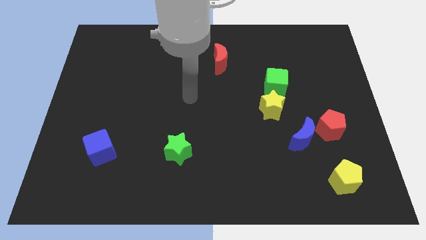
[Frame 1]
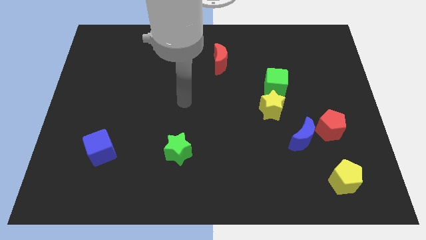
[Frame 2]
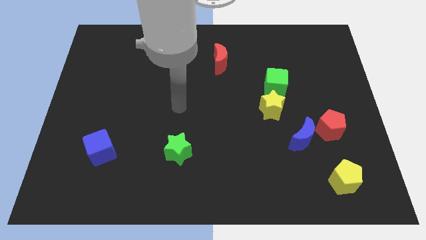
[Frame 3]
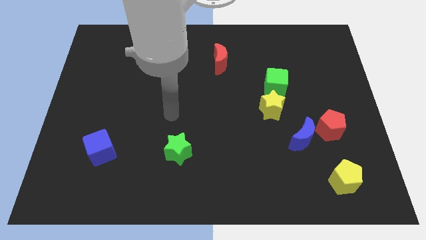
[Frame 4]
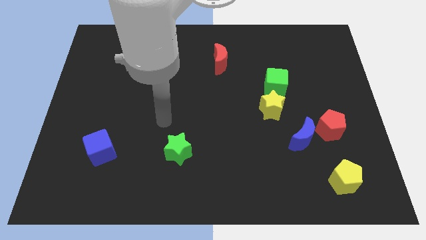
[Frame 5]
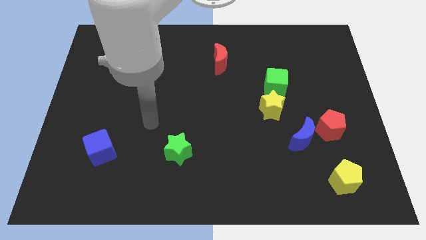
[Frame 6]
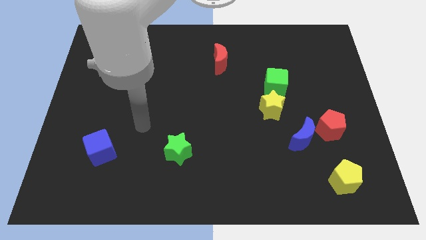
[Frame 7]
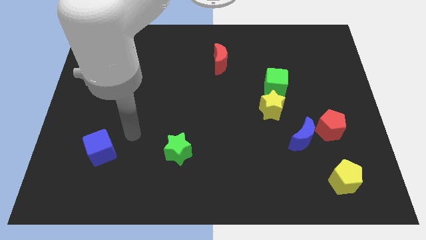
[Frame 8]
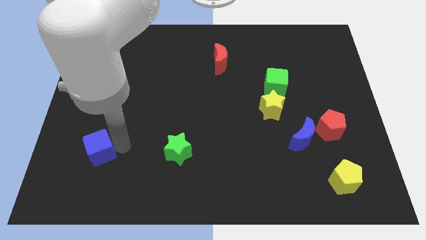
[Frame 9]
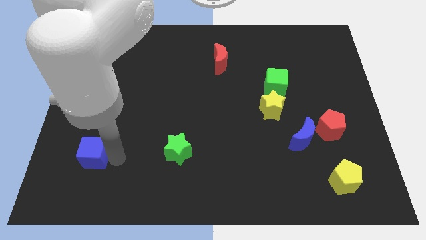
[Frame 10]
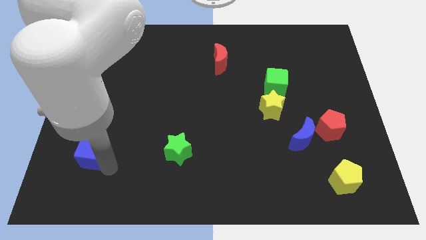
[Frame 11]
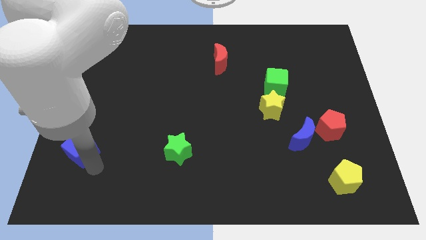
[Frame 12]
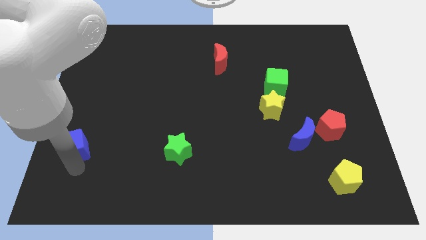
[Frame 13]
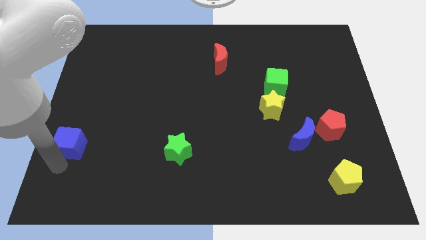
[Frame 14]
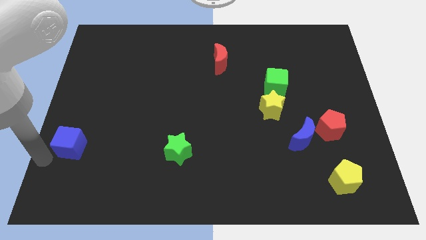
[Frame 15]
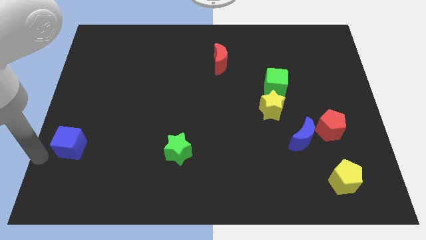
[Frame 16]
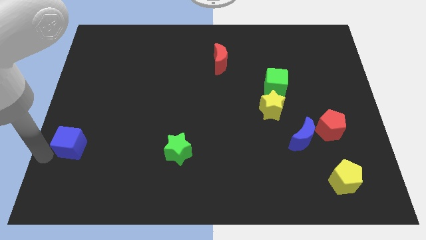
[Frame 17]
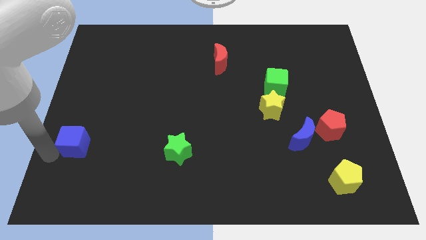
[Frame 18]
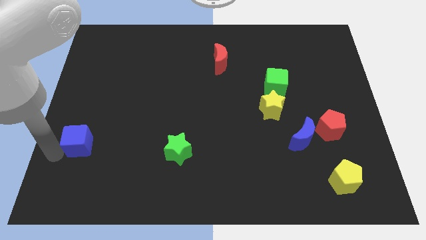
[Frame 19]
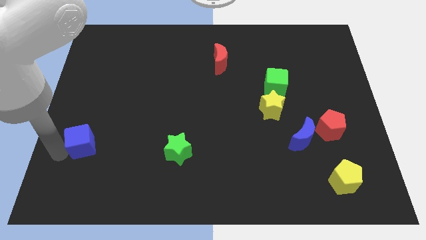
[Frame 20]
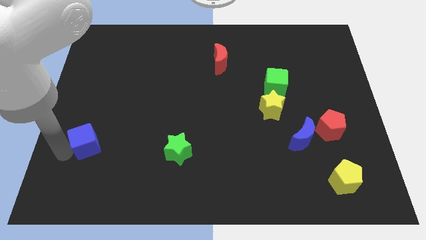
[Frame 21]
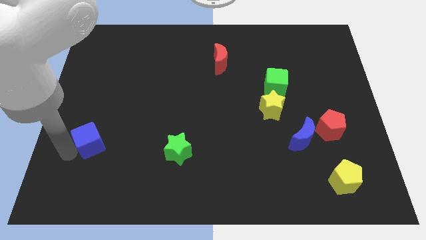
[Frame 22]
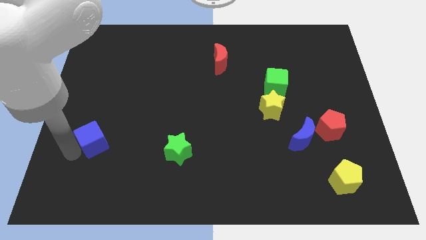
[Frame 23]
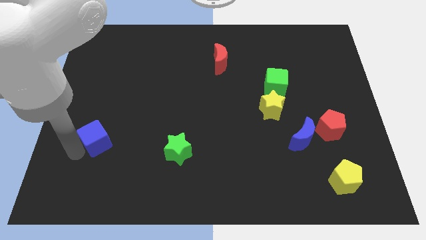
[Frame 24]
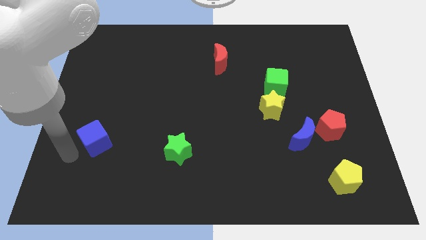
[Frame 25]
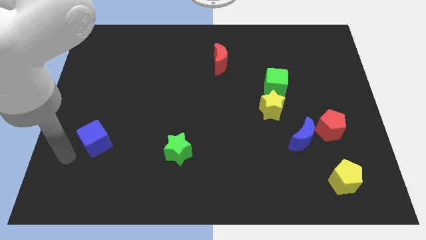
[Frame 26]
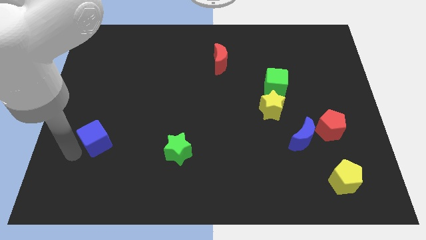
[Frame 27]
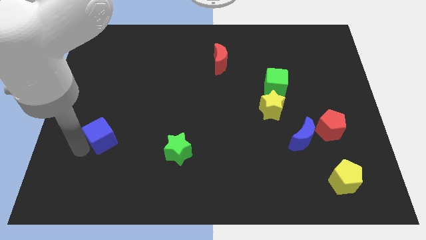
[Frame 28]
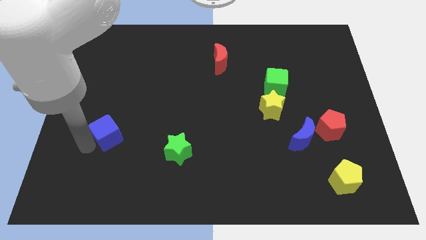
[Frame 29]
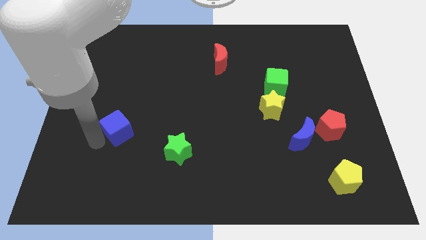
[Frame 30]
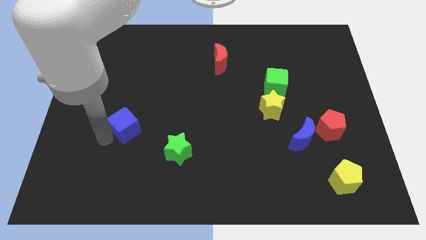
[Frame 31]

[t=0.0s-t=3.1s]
slightly slide the blue cube upwards and then right

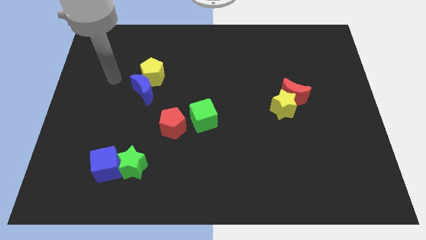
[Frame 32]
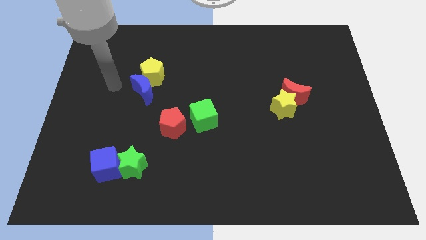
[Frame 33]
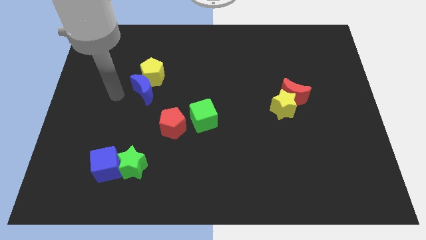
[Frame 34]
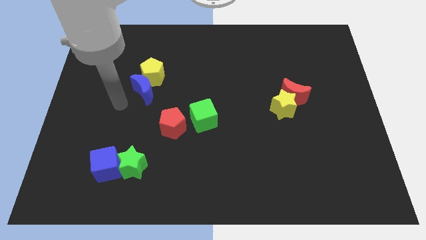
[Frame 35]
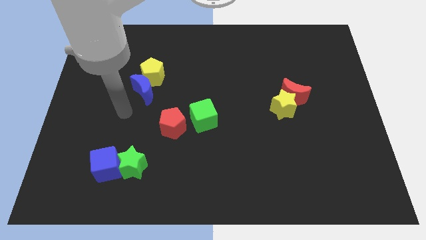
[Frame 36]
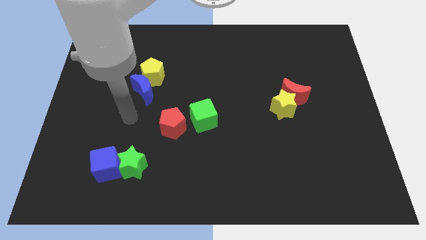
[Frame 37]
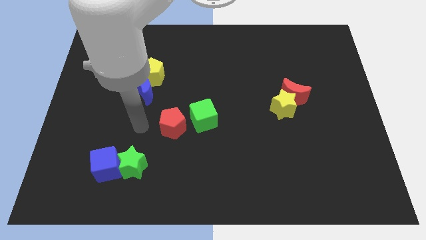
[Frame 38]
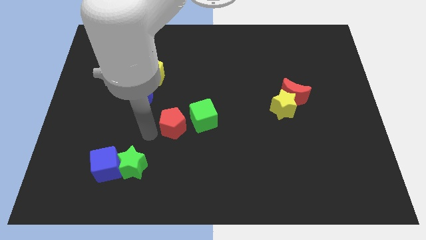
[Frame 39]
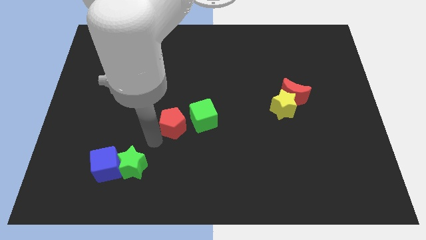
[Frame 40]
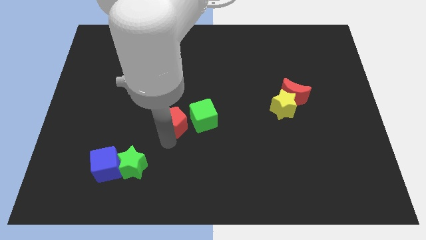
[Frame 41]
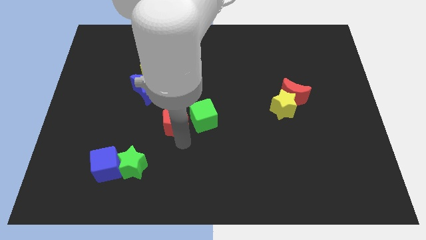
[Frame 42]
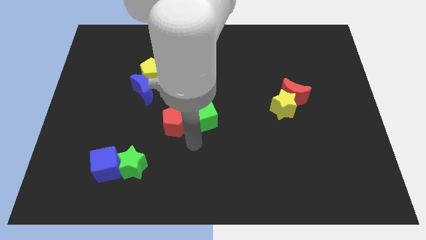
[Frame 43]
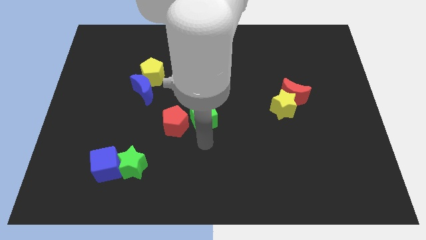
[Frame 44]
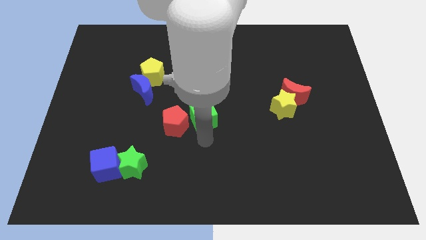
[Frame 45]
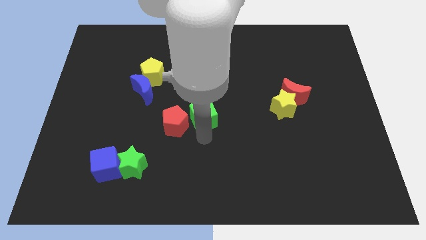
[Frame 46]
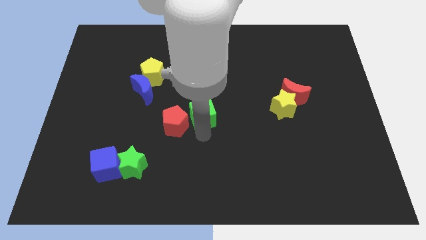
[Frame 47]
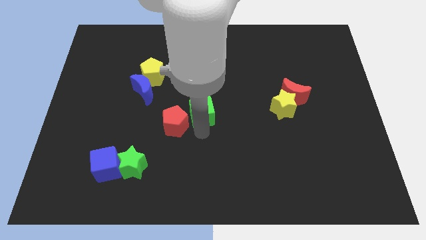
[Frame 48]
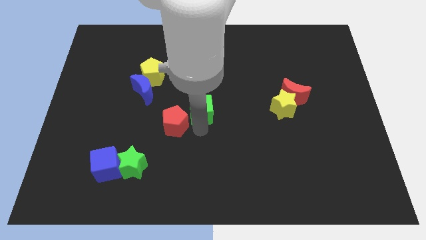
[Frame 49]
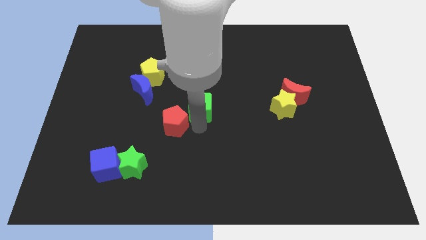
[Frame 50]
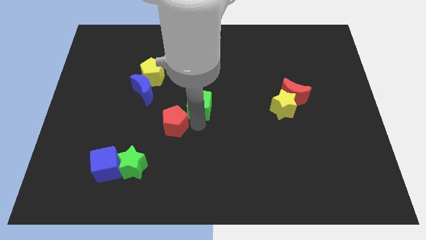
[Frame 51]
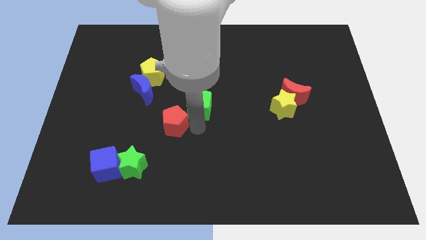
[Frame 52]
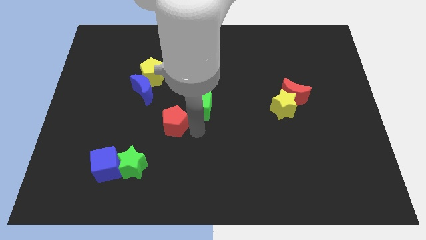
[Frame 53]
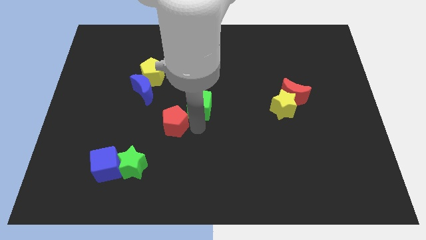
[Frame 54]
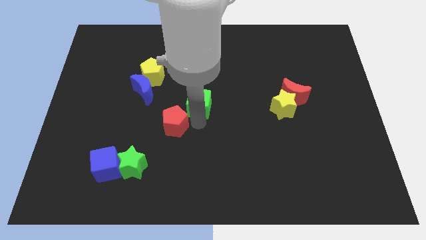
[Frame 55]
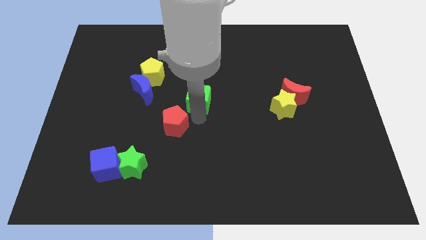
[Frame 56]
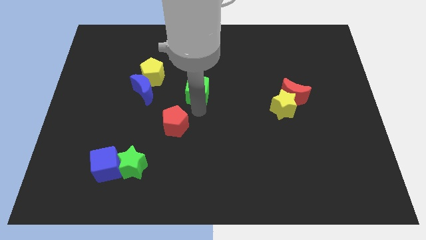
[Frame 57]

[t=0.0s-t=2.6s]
slide the green cube up a bit

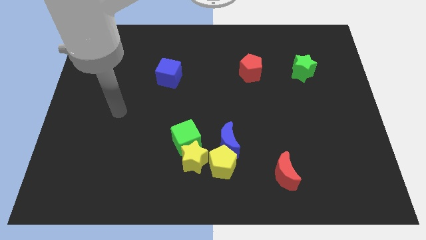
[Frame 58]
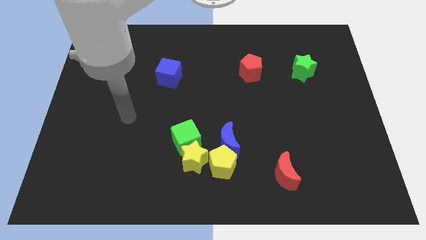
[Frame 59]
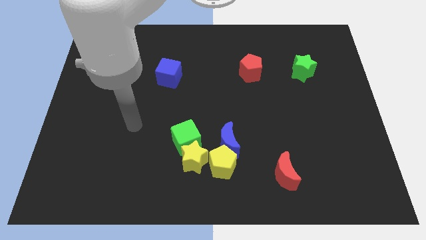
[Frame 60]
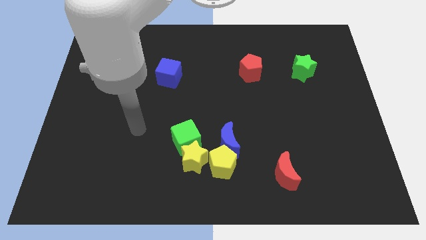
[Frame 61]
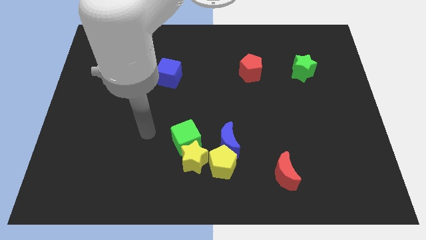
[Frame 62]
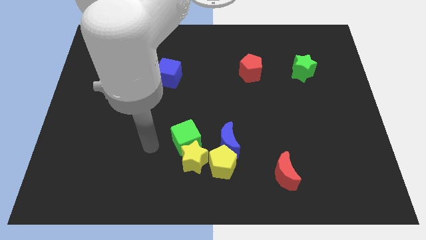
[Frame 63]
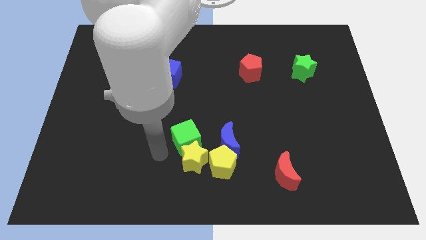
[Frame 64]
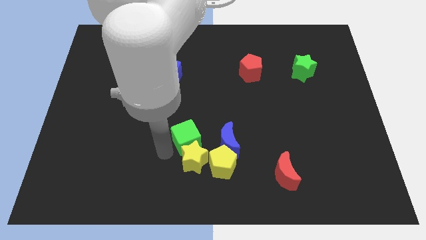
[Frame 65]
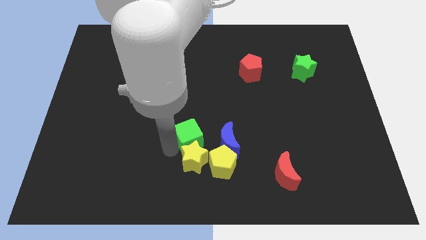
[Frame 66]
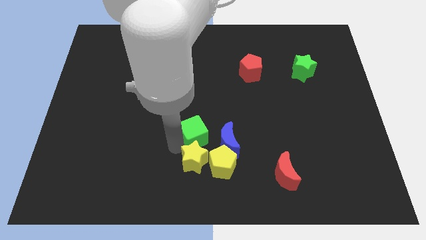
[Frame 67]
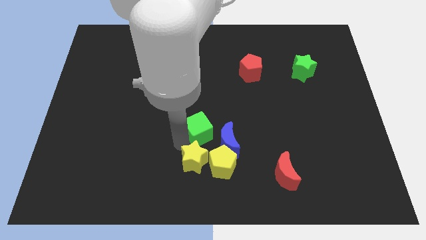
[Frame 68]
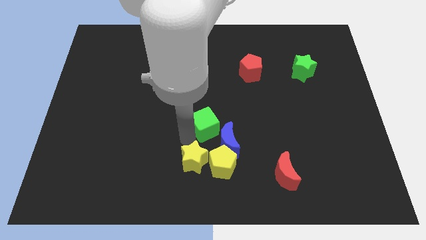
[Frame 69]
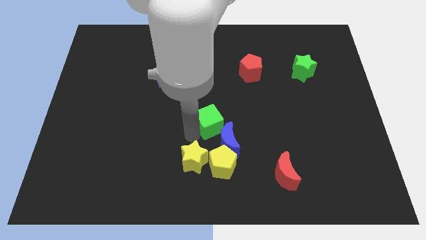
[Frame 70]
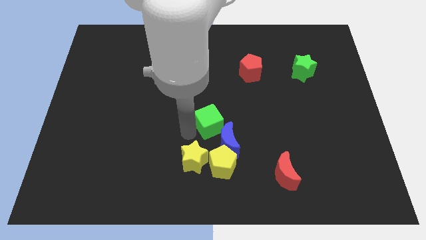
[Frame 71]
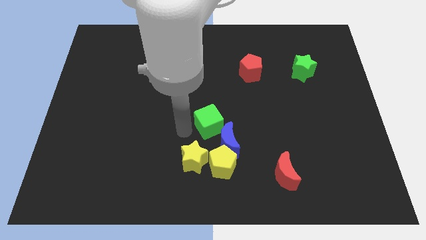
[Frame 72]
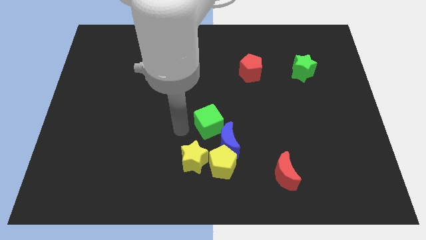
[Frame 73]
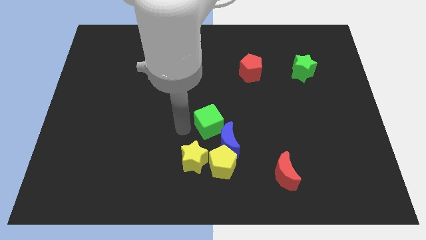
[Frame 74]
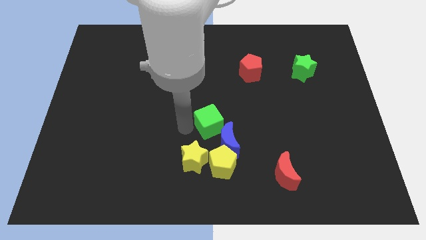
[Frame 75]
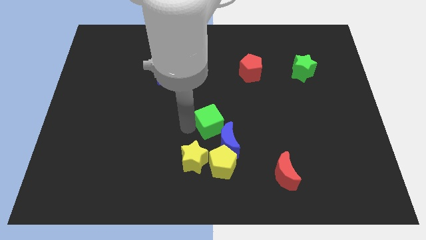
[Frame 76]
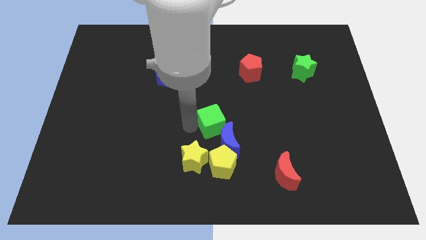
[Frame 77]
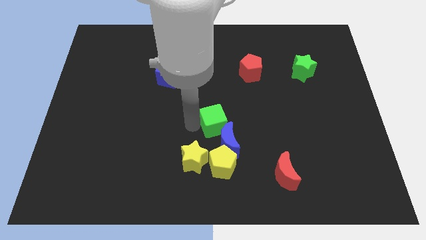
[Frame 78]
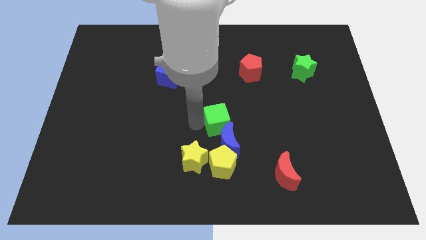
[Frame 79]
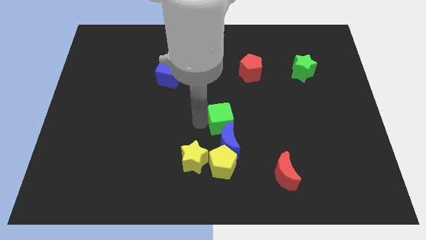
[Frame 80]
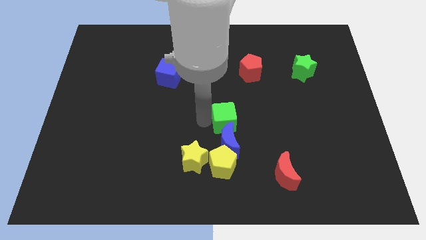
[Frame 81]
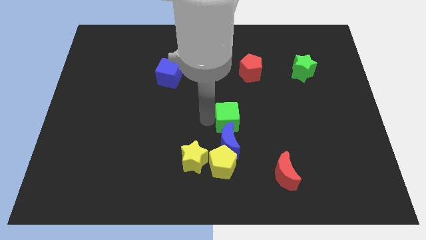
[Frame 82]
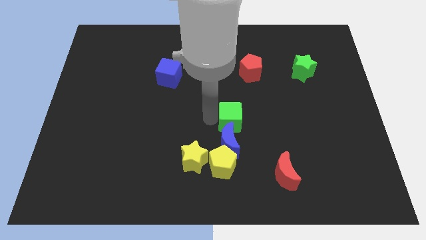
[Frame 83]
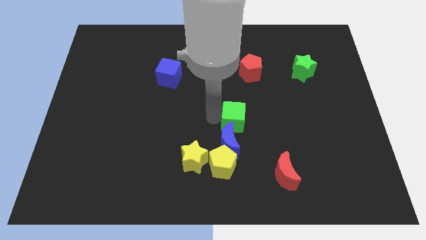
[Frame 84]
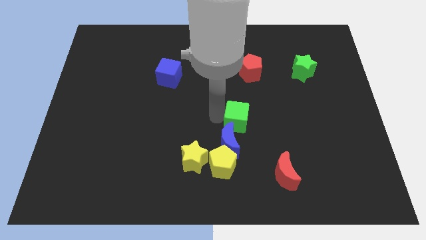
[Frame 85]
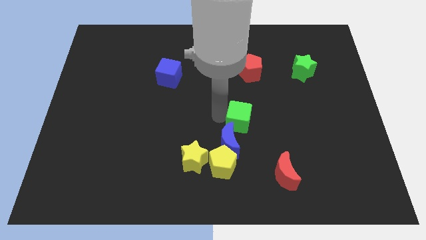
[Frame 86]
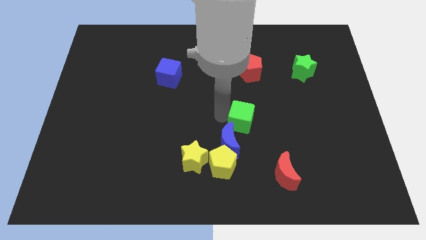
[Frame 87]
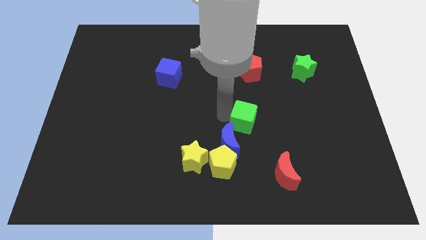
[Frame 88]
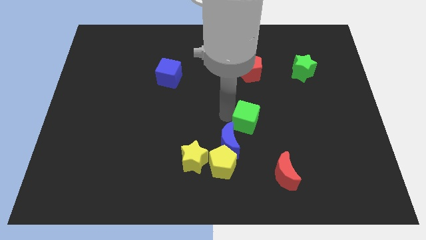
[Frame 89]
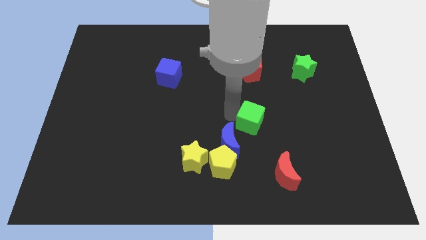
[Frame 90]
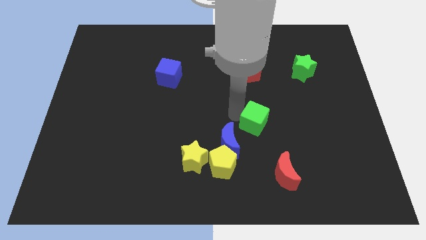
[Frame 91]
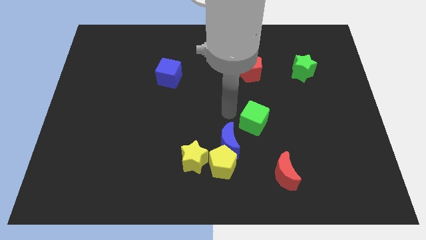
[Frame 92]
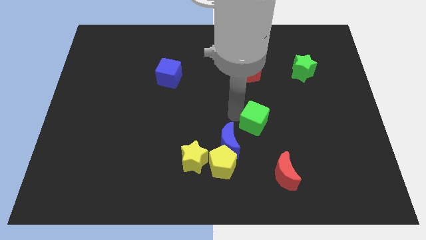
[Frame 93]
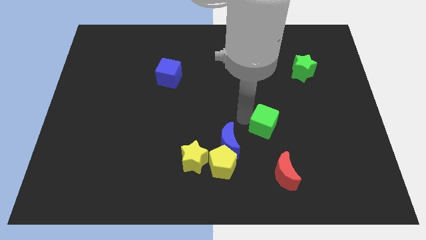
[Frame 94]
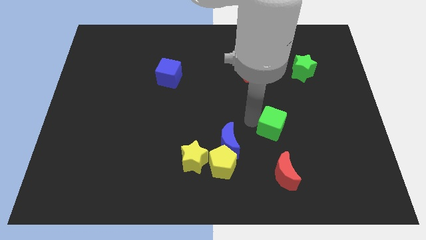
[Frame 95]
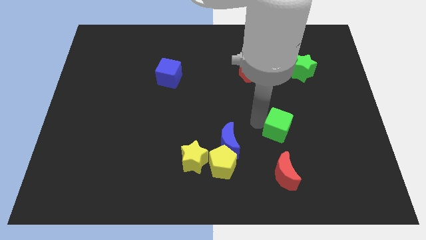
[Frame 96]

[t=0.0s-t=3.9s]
slide the green cube to the right
